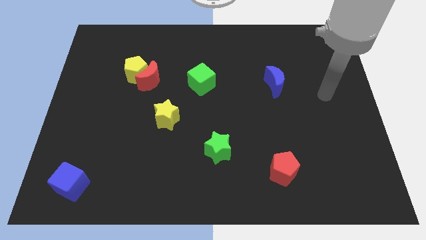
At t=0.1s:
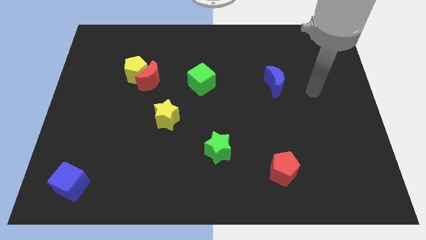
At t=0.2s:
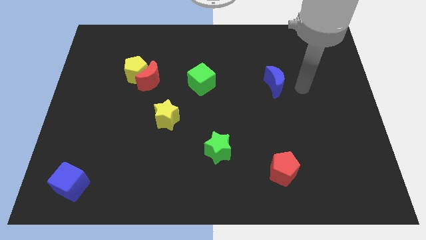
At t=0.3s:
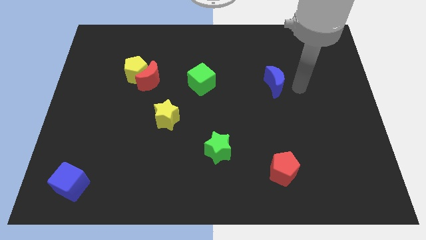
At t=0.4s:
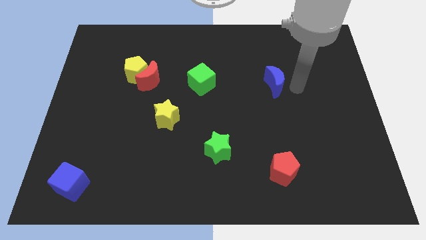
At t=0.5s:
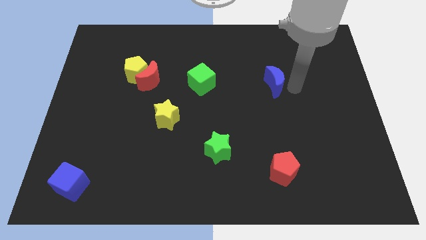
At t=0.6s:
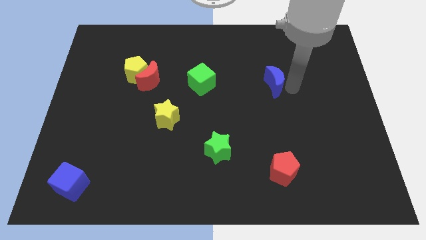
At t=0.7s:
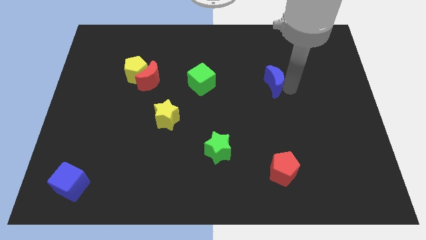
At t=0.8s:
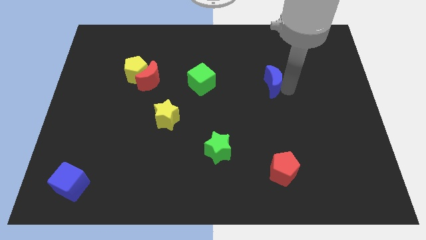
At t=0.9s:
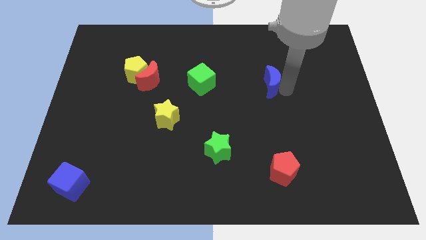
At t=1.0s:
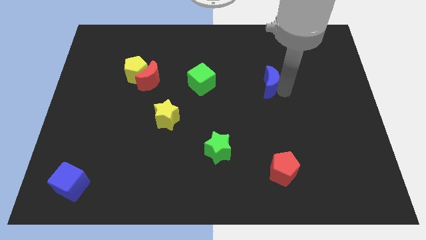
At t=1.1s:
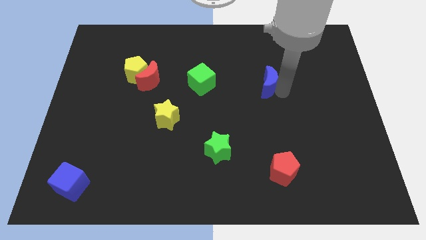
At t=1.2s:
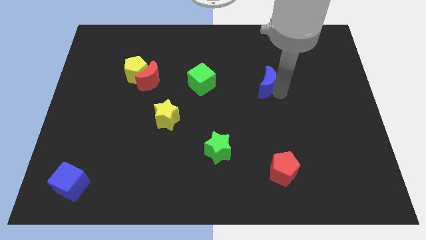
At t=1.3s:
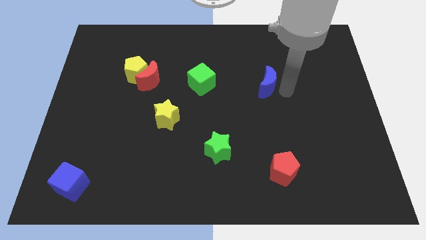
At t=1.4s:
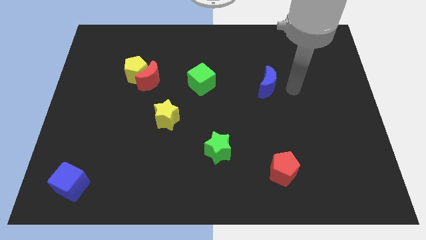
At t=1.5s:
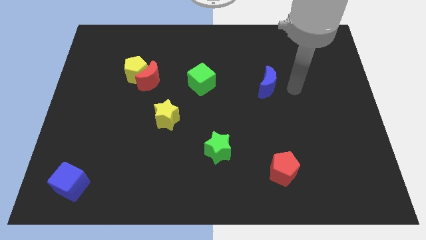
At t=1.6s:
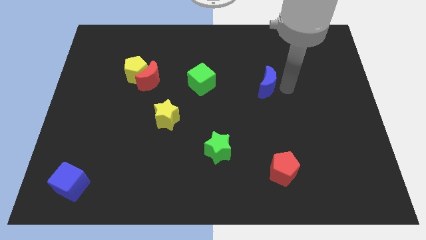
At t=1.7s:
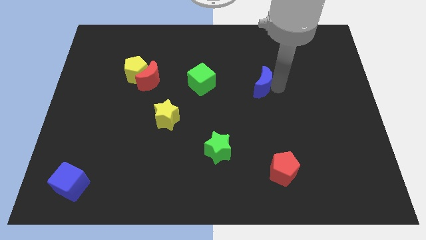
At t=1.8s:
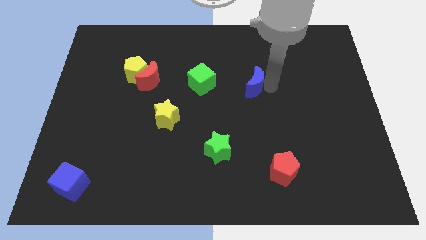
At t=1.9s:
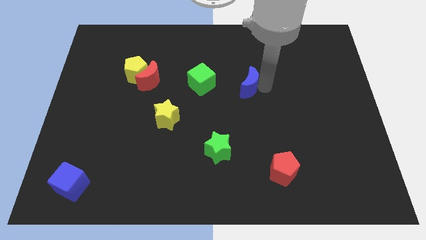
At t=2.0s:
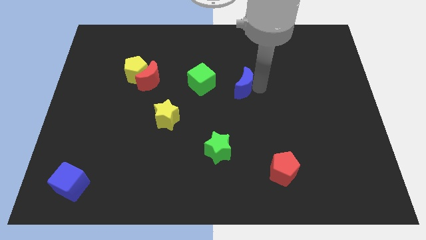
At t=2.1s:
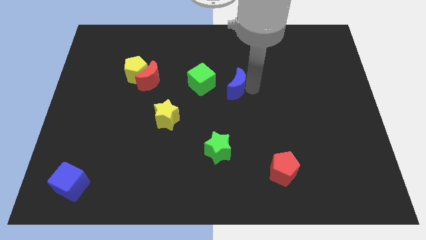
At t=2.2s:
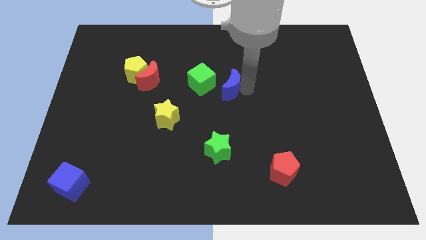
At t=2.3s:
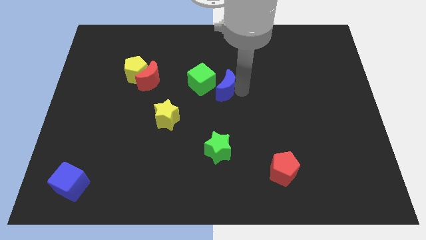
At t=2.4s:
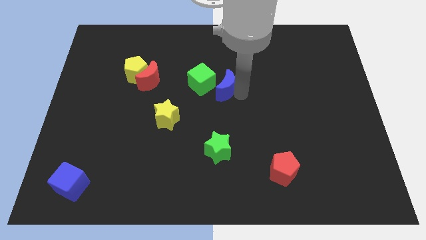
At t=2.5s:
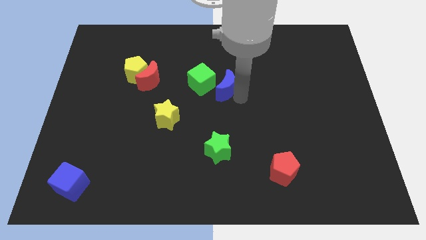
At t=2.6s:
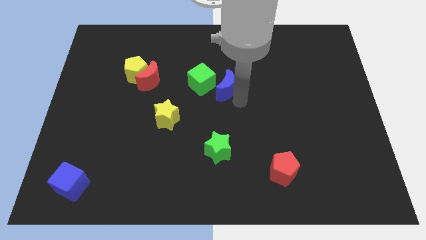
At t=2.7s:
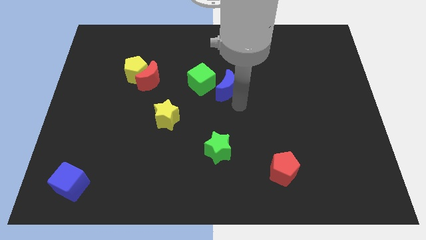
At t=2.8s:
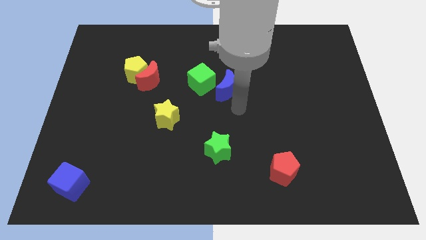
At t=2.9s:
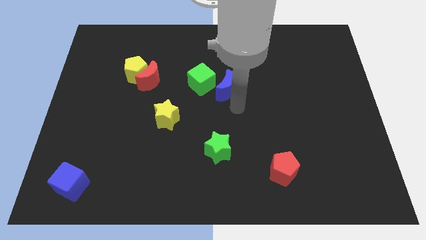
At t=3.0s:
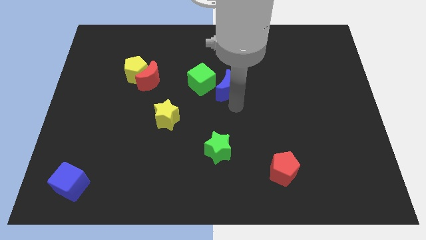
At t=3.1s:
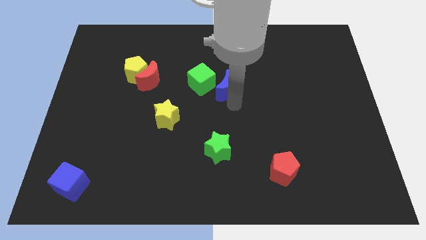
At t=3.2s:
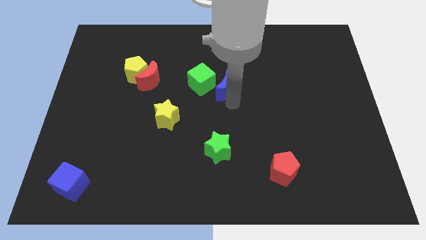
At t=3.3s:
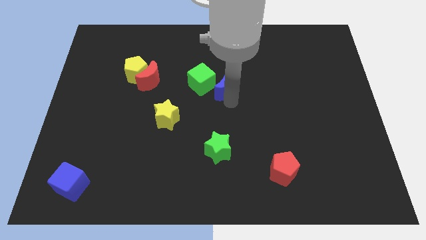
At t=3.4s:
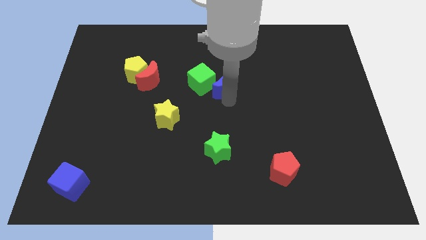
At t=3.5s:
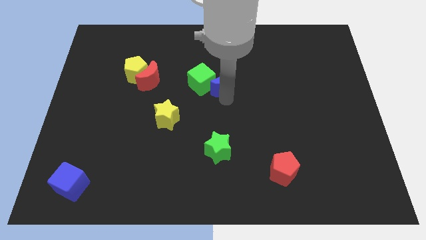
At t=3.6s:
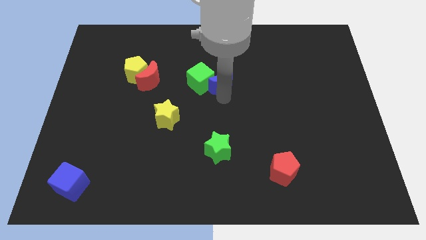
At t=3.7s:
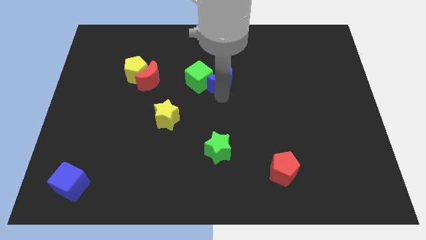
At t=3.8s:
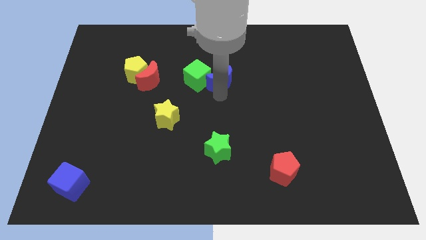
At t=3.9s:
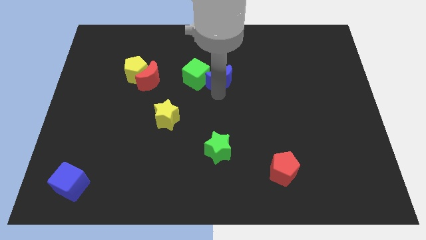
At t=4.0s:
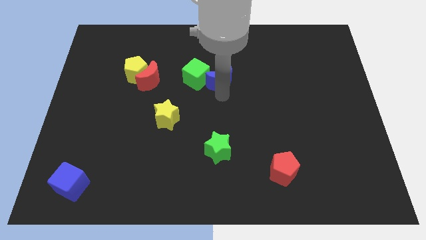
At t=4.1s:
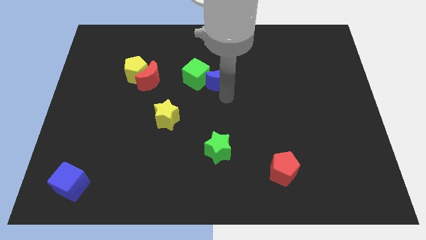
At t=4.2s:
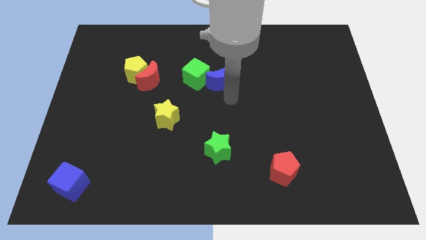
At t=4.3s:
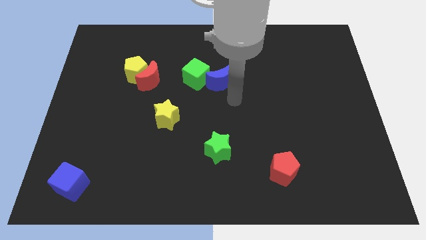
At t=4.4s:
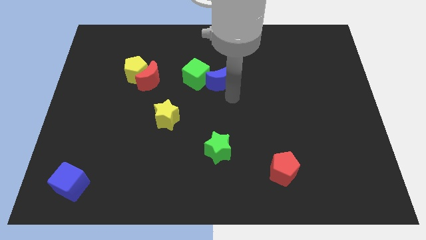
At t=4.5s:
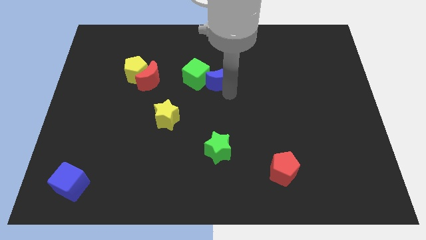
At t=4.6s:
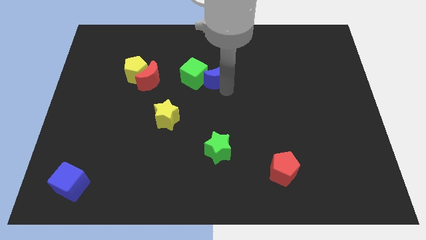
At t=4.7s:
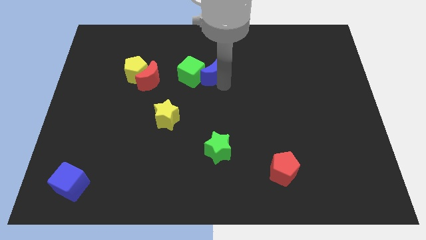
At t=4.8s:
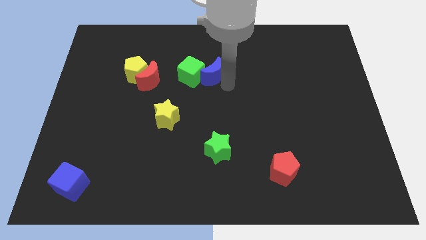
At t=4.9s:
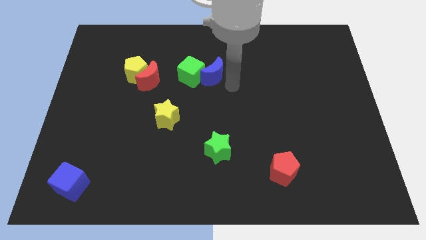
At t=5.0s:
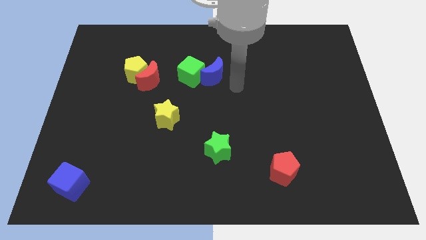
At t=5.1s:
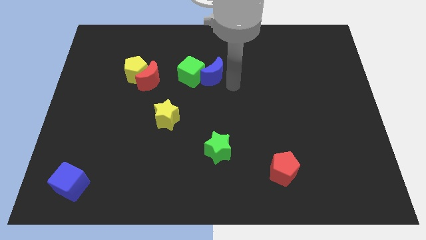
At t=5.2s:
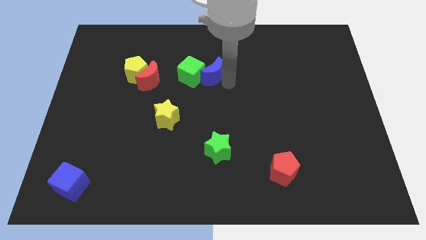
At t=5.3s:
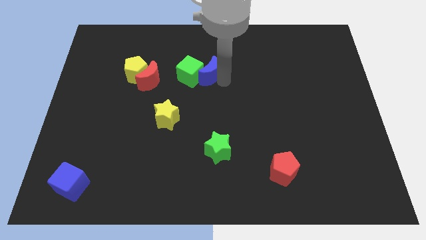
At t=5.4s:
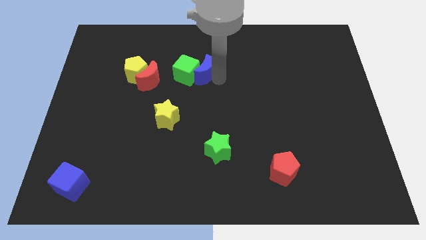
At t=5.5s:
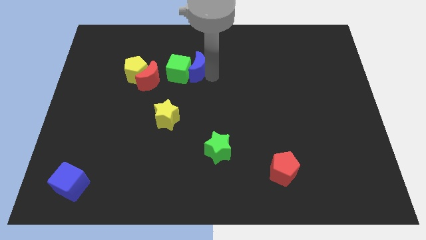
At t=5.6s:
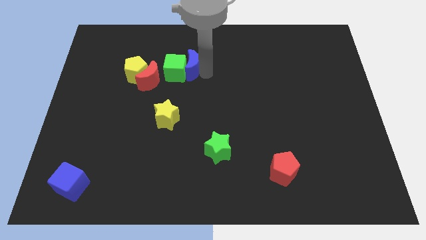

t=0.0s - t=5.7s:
move the blue moon to the top right of the red moon

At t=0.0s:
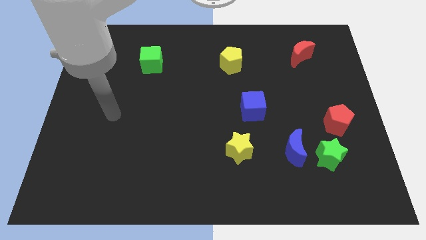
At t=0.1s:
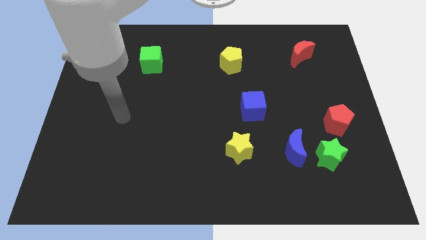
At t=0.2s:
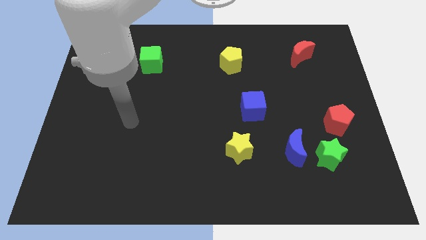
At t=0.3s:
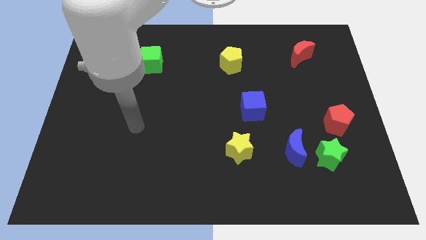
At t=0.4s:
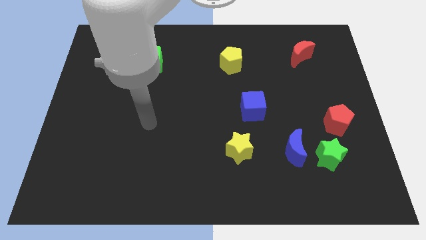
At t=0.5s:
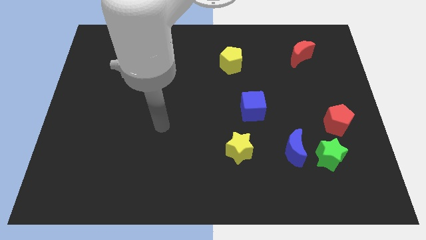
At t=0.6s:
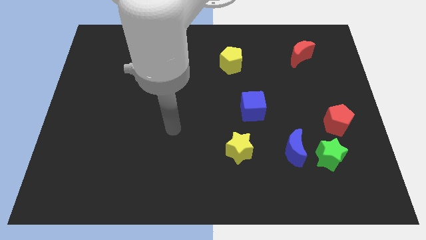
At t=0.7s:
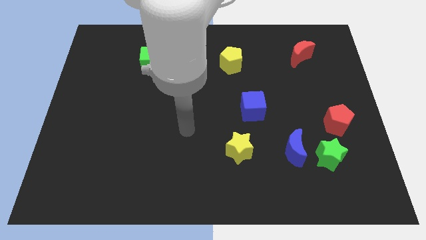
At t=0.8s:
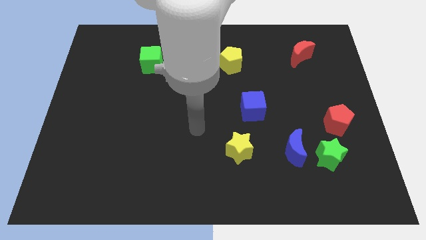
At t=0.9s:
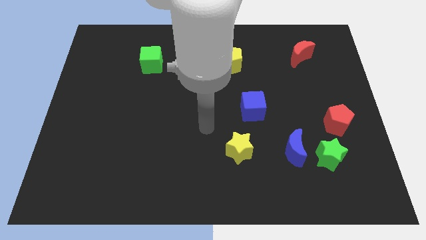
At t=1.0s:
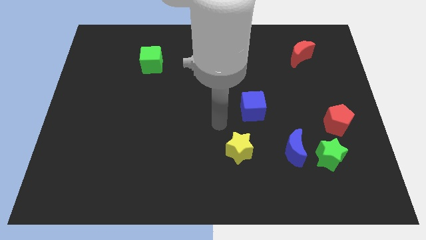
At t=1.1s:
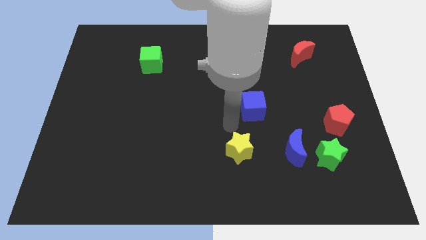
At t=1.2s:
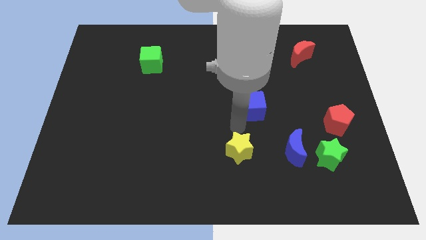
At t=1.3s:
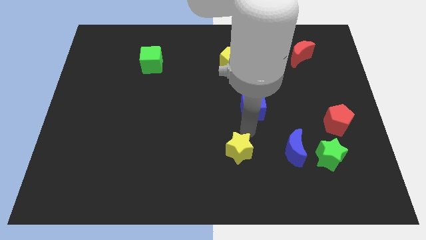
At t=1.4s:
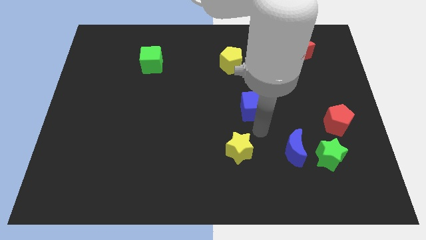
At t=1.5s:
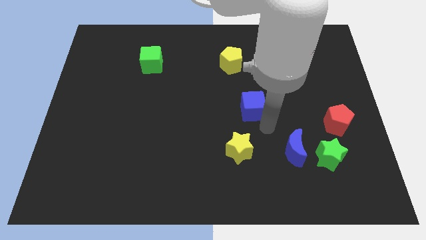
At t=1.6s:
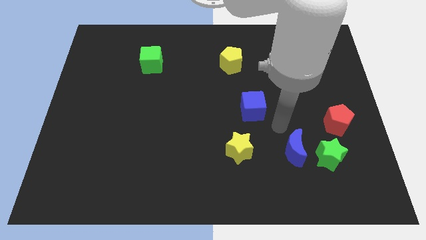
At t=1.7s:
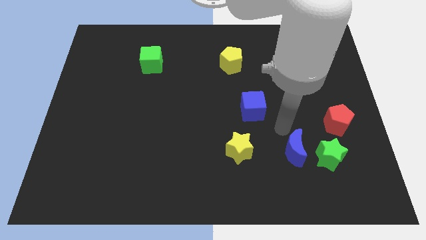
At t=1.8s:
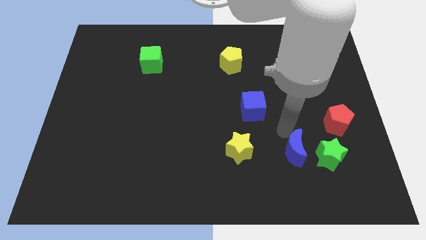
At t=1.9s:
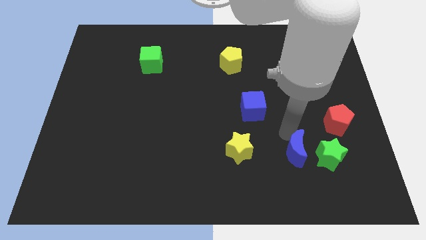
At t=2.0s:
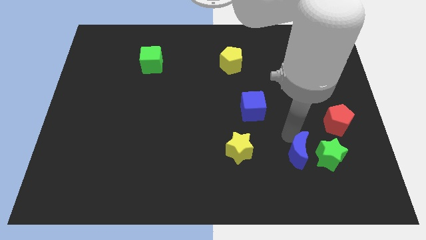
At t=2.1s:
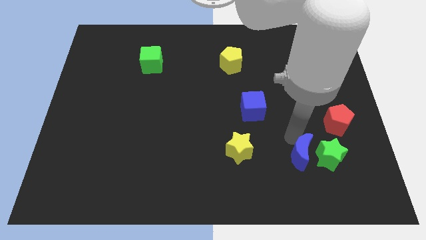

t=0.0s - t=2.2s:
put the blue moon to the bottom left side of the green star
